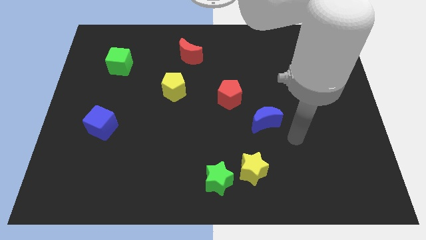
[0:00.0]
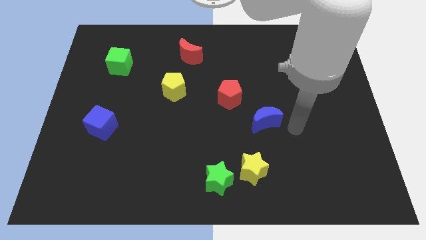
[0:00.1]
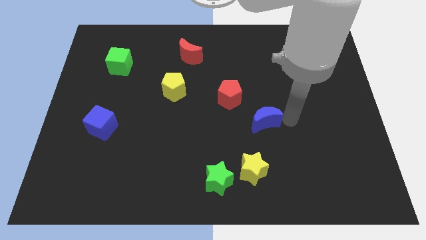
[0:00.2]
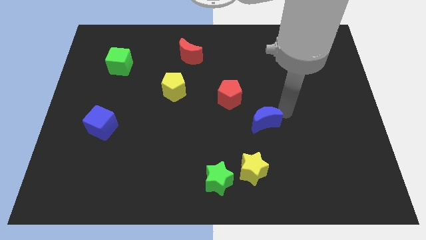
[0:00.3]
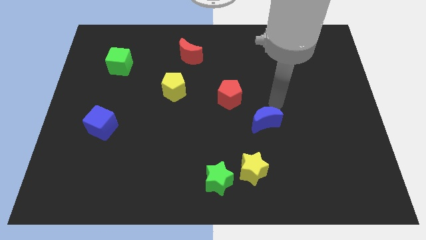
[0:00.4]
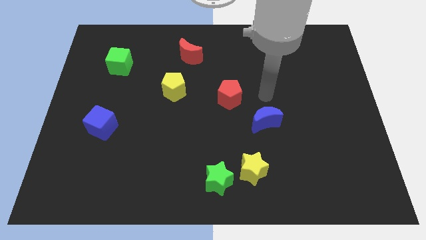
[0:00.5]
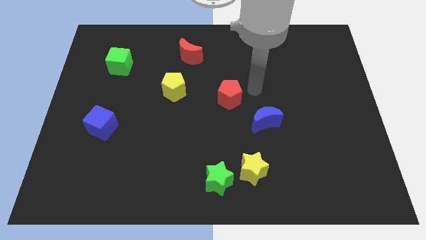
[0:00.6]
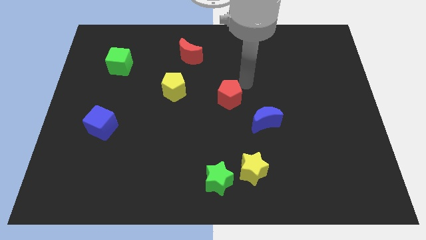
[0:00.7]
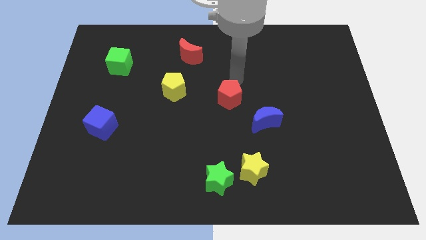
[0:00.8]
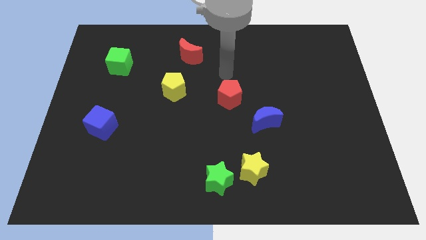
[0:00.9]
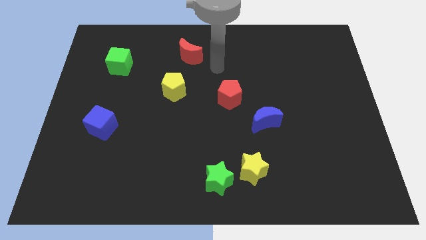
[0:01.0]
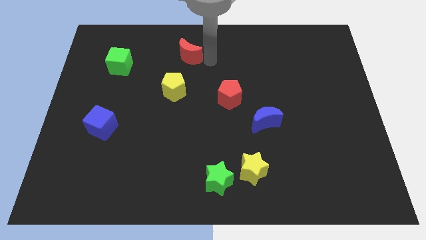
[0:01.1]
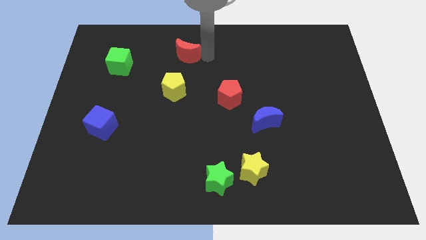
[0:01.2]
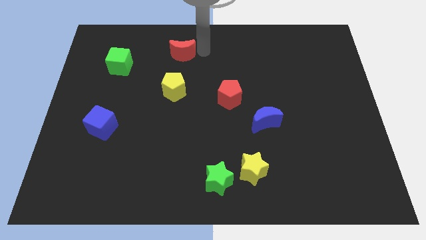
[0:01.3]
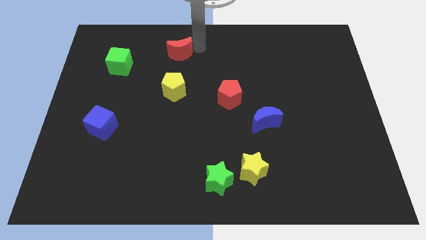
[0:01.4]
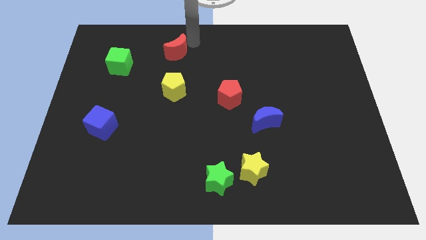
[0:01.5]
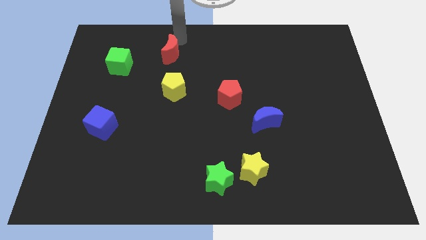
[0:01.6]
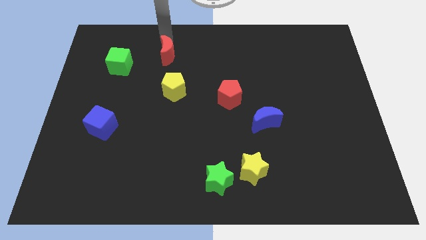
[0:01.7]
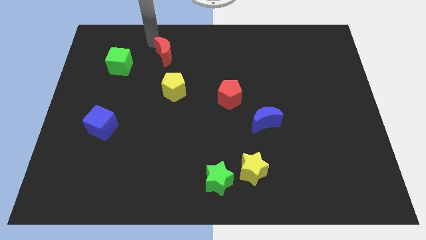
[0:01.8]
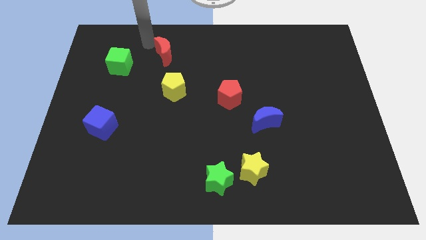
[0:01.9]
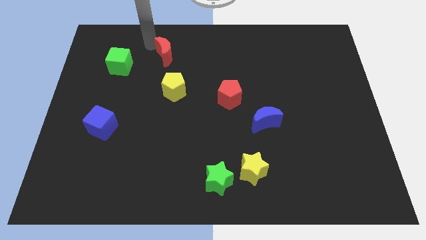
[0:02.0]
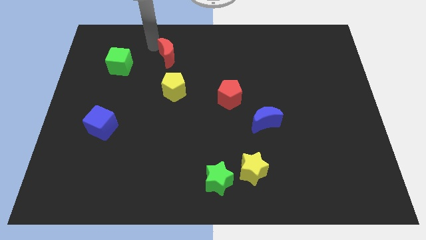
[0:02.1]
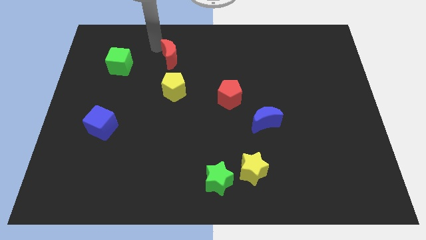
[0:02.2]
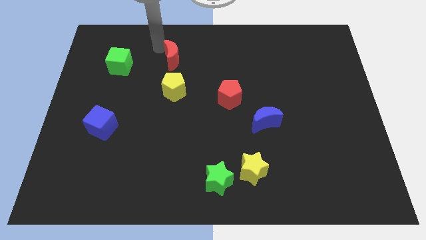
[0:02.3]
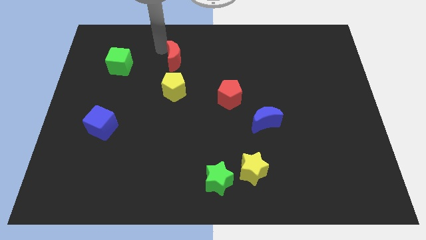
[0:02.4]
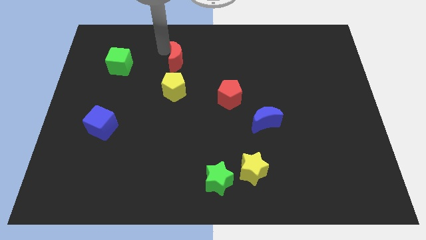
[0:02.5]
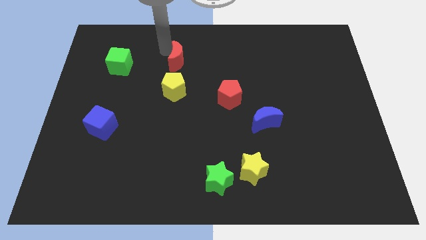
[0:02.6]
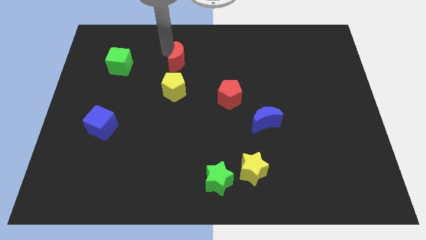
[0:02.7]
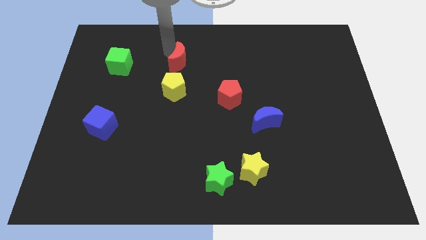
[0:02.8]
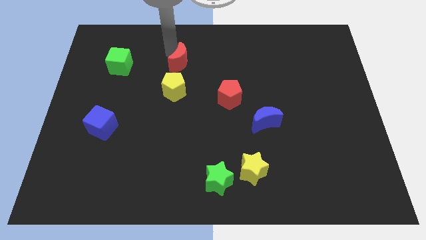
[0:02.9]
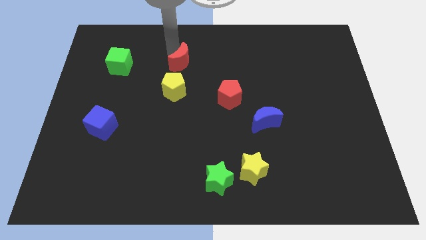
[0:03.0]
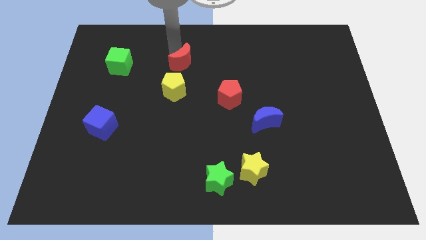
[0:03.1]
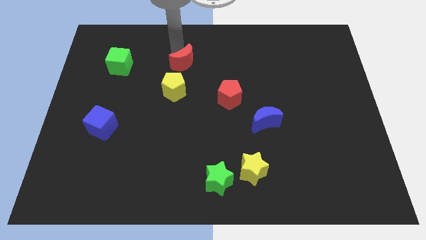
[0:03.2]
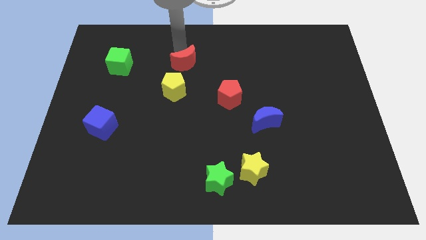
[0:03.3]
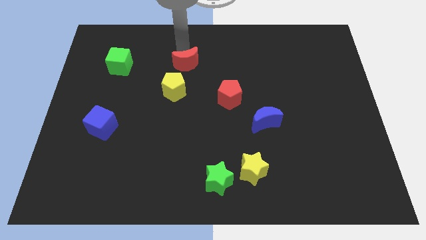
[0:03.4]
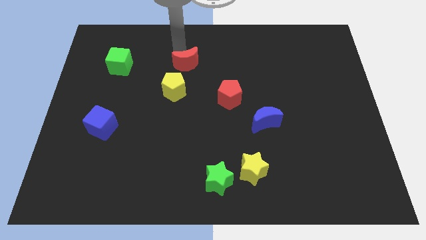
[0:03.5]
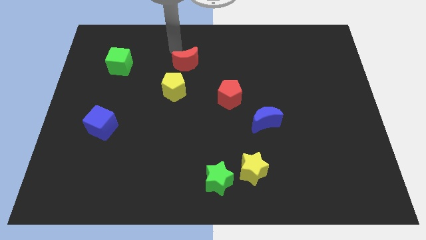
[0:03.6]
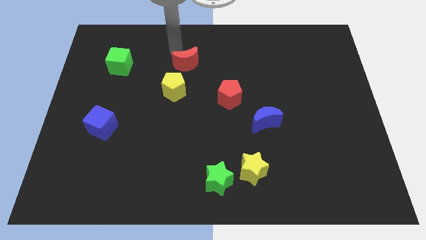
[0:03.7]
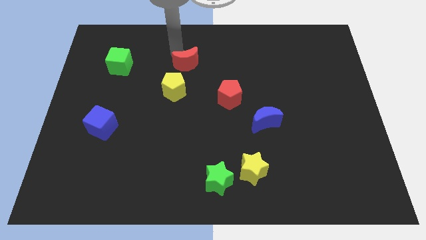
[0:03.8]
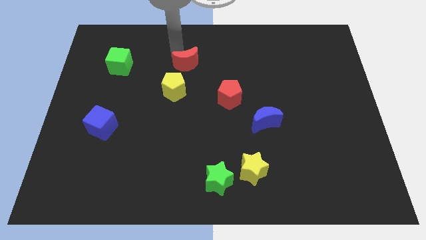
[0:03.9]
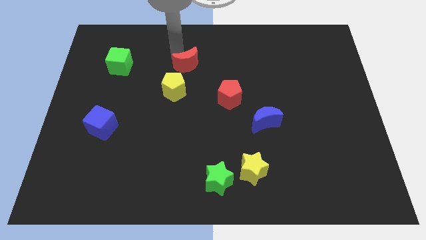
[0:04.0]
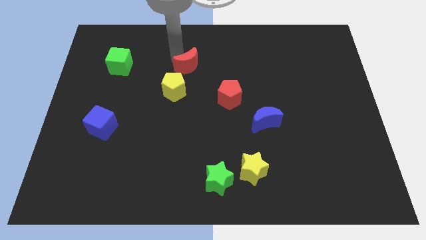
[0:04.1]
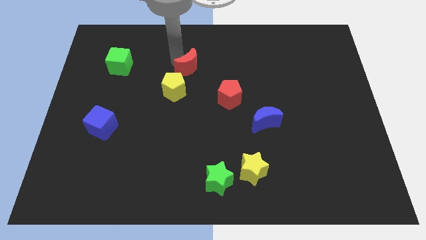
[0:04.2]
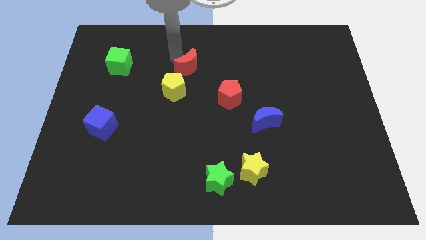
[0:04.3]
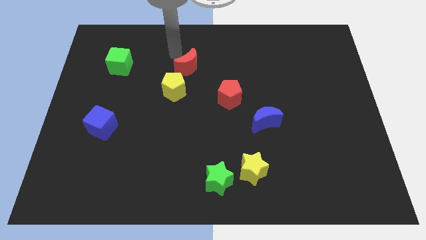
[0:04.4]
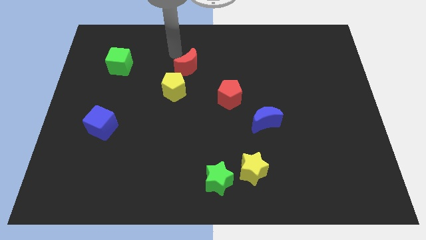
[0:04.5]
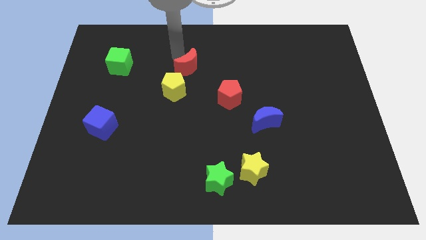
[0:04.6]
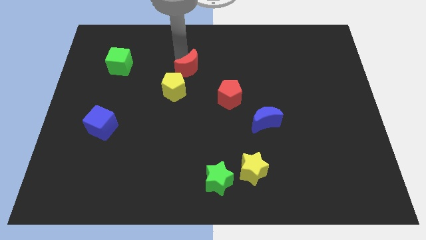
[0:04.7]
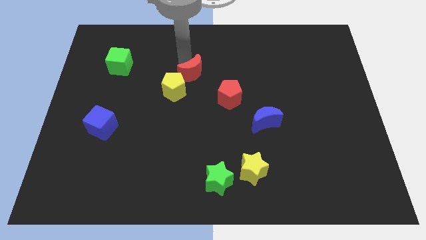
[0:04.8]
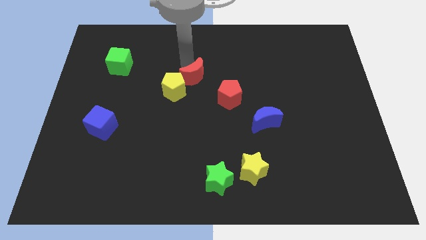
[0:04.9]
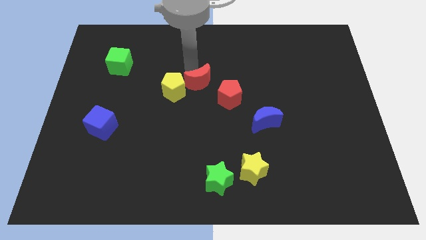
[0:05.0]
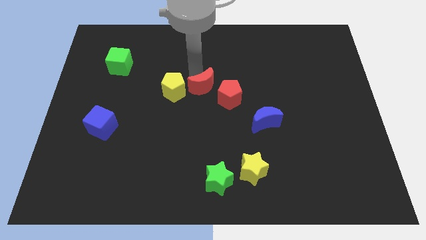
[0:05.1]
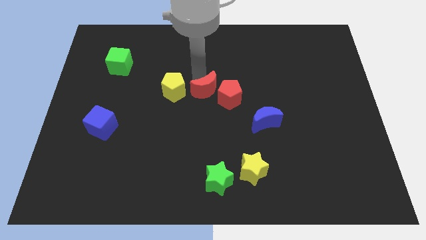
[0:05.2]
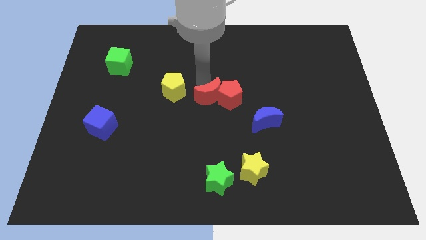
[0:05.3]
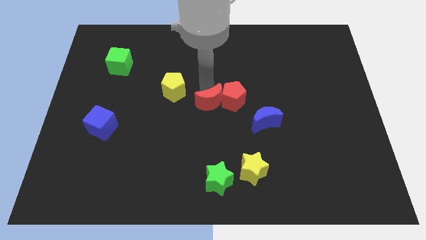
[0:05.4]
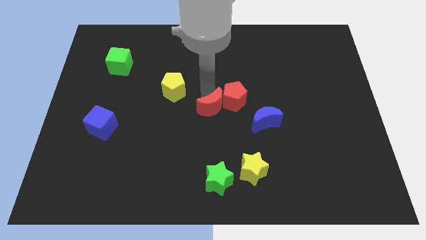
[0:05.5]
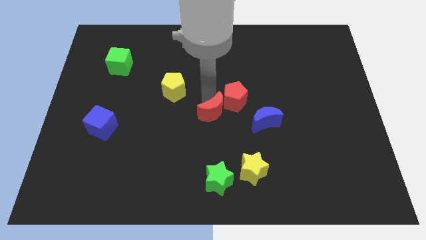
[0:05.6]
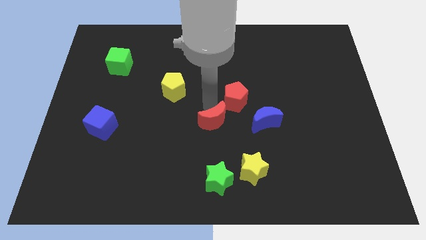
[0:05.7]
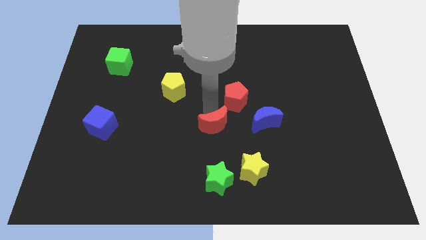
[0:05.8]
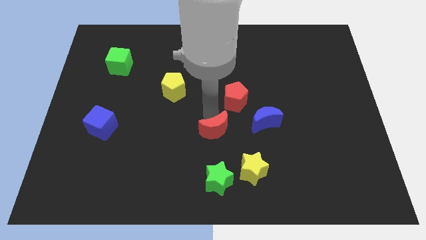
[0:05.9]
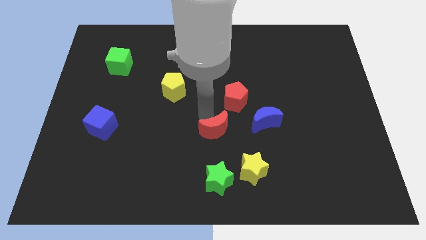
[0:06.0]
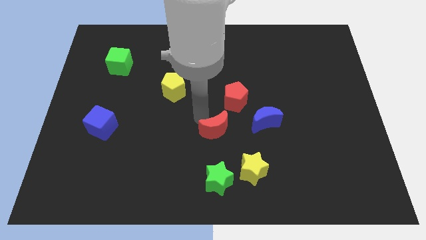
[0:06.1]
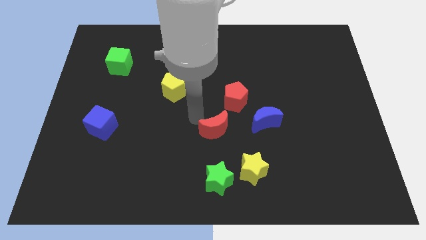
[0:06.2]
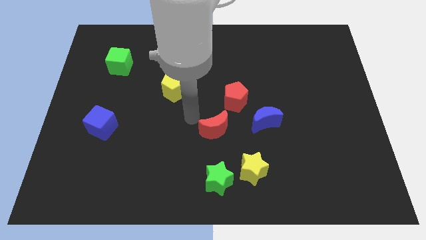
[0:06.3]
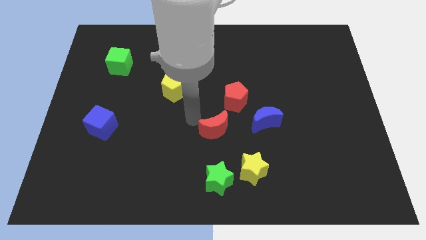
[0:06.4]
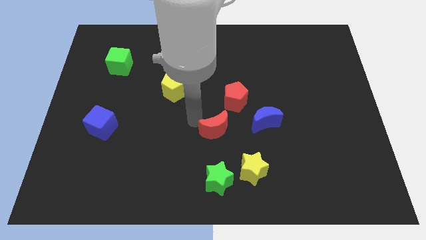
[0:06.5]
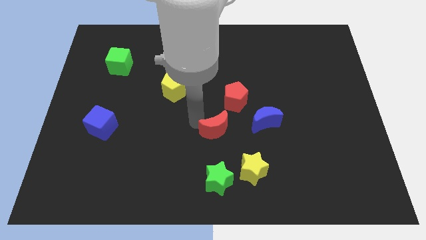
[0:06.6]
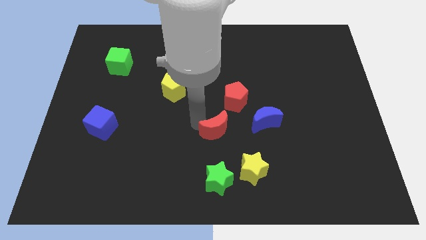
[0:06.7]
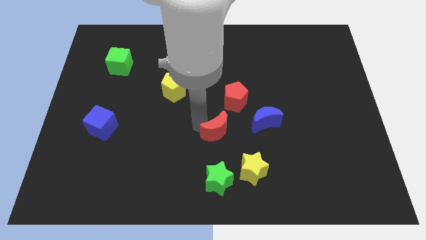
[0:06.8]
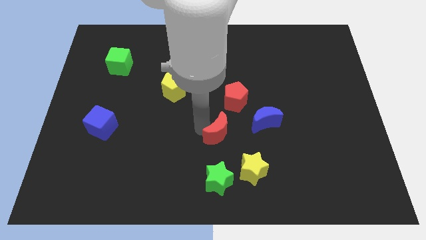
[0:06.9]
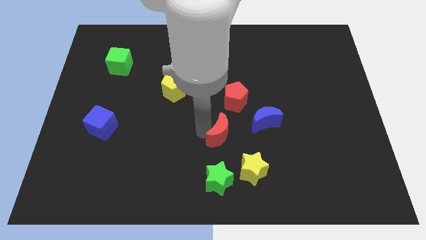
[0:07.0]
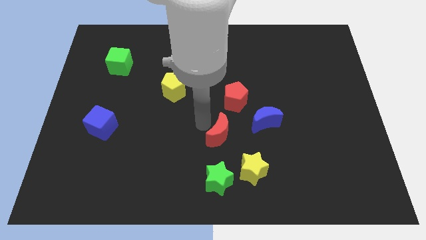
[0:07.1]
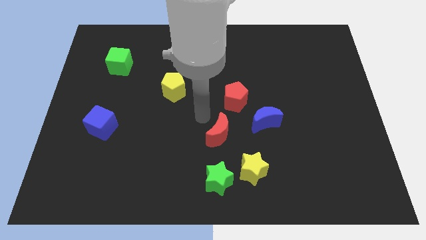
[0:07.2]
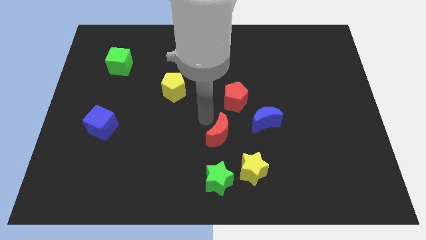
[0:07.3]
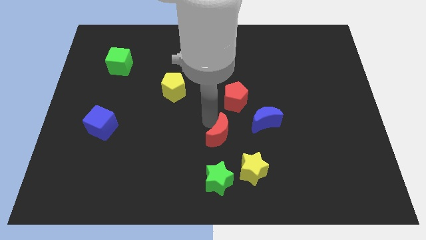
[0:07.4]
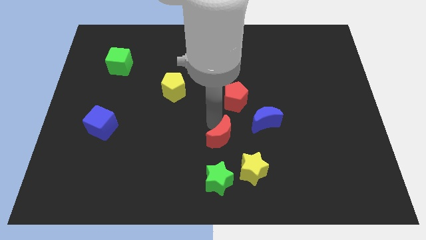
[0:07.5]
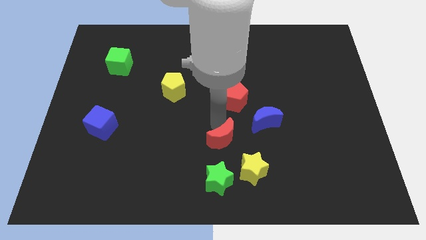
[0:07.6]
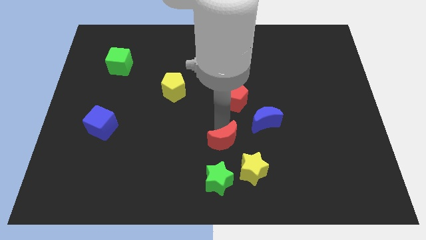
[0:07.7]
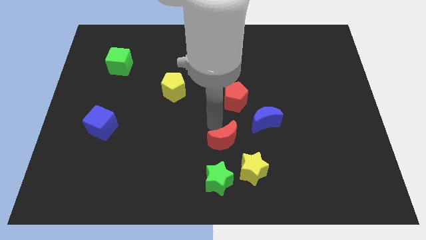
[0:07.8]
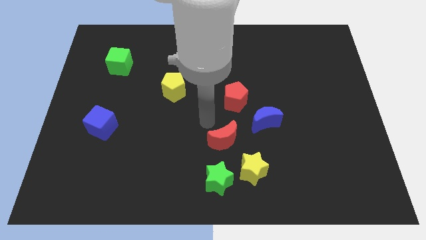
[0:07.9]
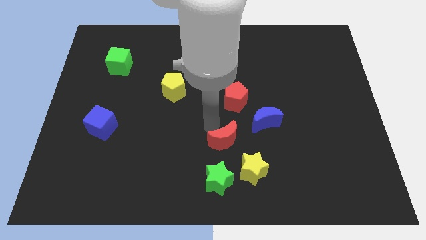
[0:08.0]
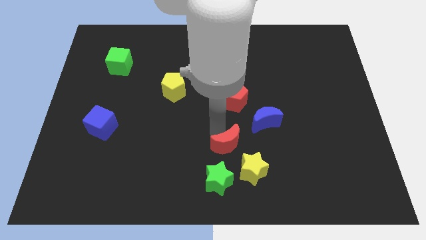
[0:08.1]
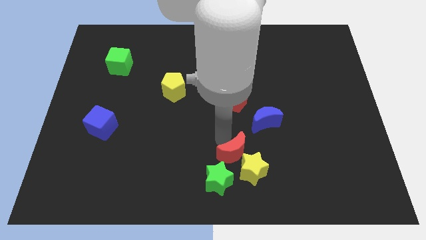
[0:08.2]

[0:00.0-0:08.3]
move the red moon close to the yellow star

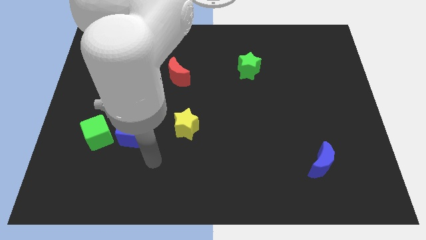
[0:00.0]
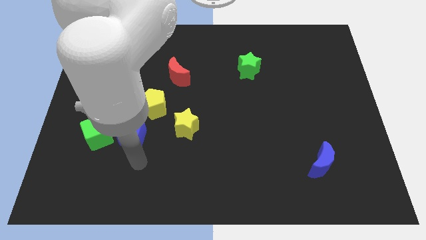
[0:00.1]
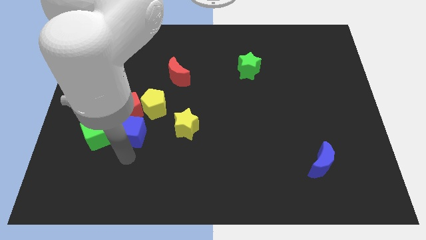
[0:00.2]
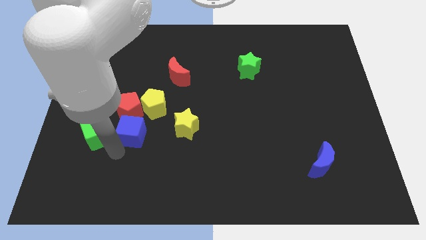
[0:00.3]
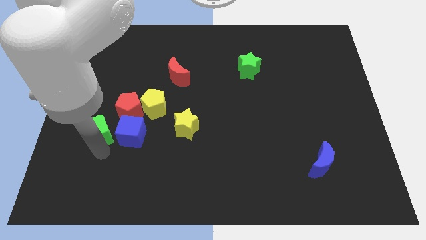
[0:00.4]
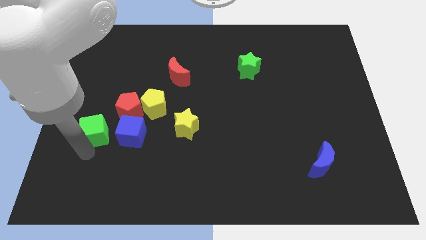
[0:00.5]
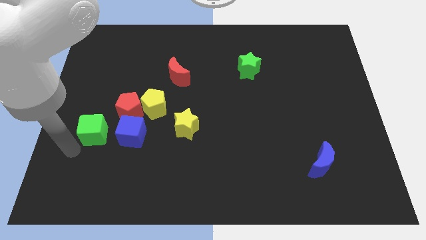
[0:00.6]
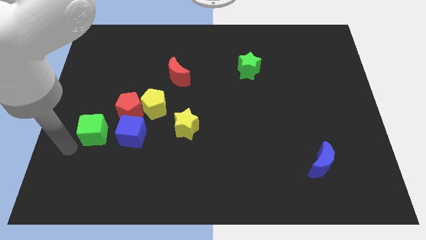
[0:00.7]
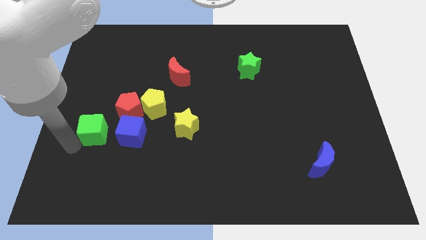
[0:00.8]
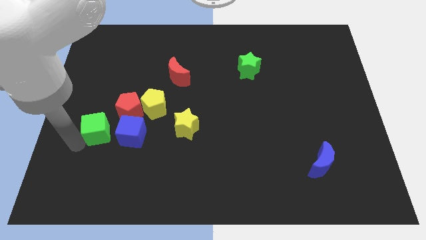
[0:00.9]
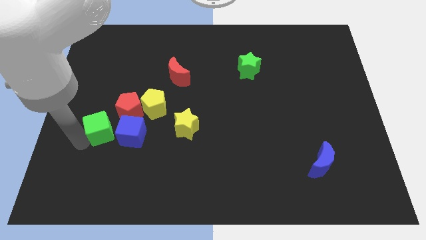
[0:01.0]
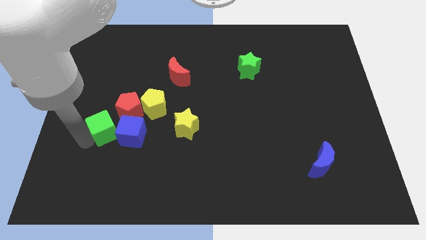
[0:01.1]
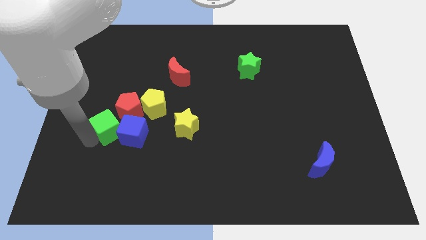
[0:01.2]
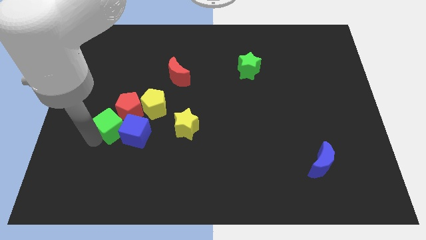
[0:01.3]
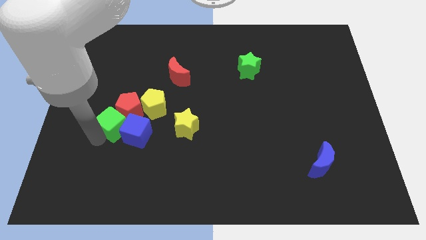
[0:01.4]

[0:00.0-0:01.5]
move the green cube towards the red pentagon
